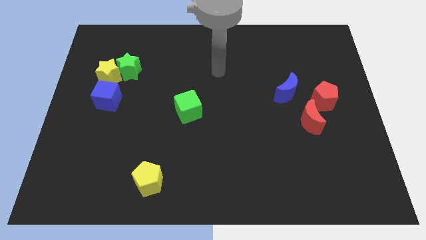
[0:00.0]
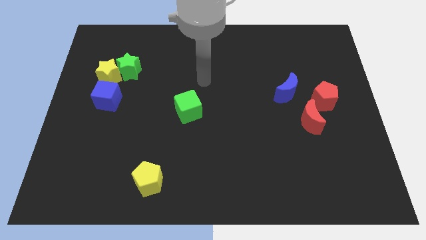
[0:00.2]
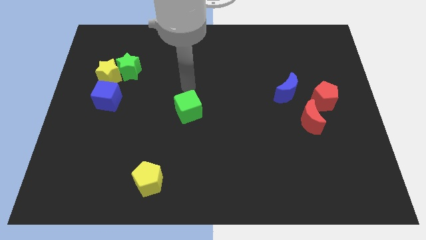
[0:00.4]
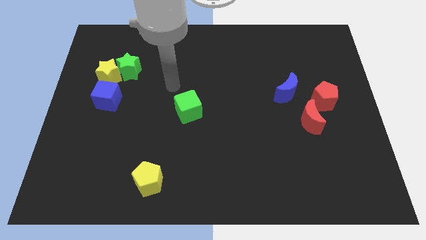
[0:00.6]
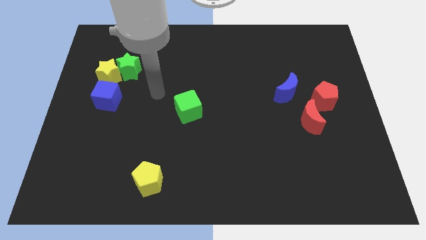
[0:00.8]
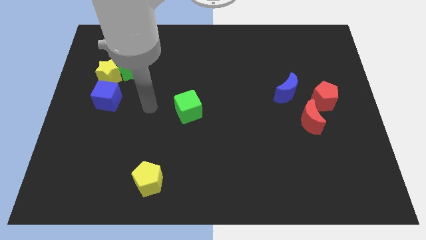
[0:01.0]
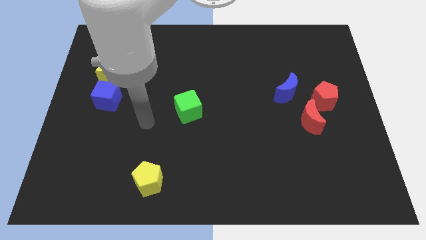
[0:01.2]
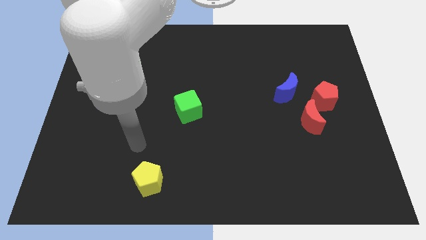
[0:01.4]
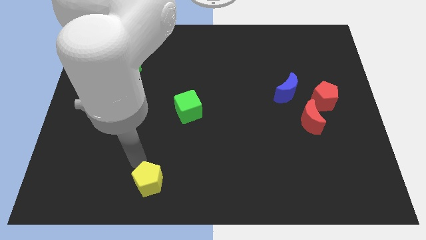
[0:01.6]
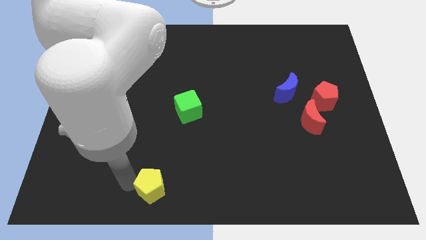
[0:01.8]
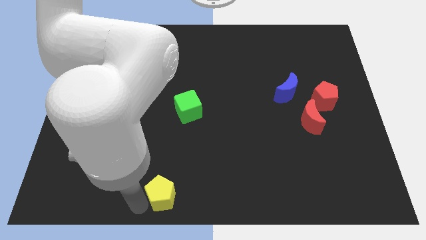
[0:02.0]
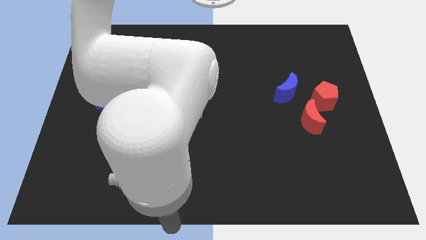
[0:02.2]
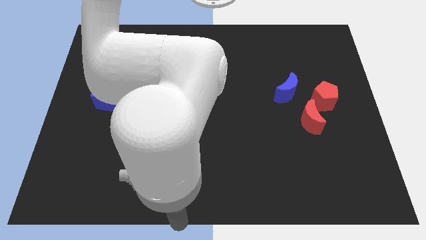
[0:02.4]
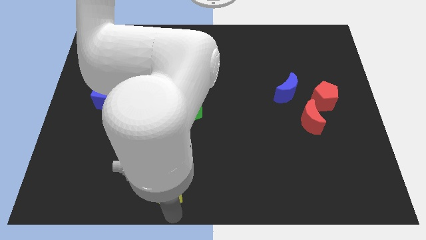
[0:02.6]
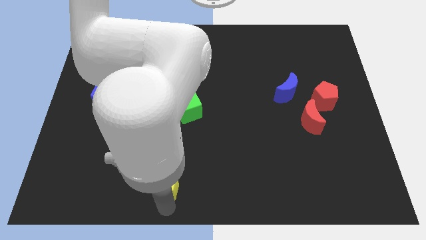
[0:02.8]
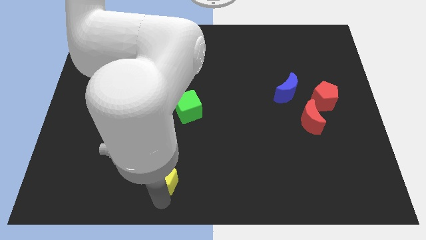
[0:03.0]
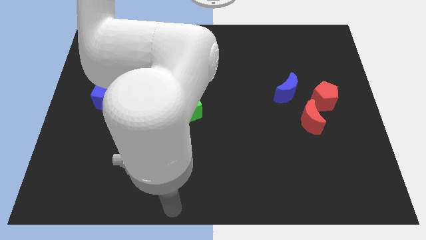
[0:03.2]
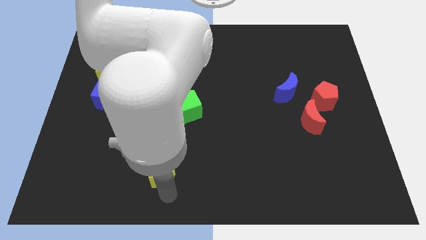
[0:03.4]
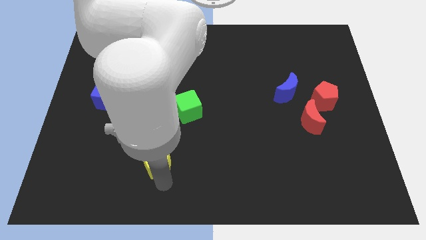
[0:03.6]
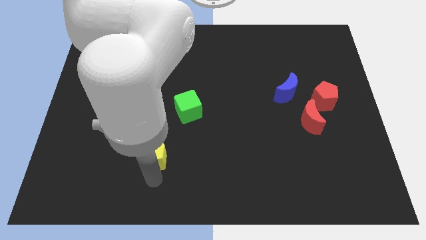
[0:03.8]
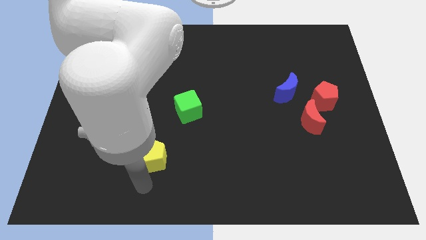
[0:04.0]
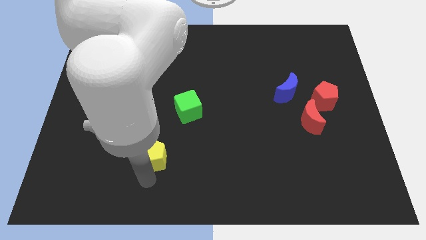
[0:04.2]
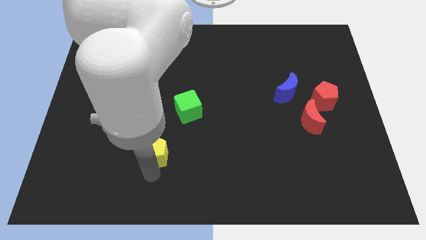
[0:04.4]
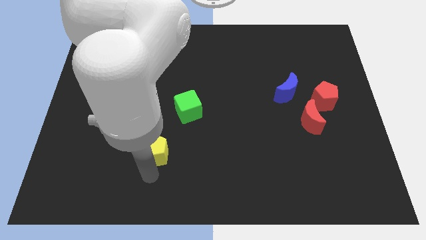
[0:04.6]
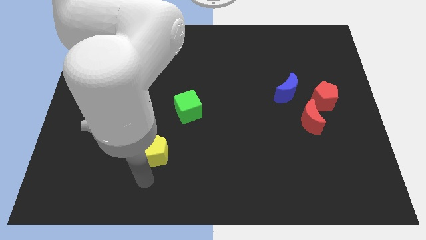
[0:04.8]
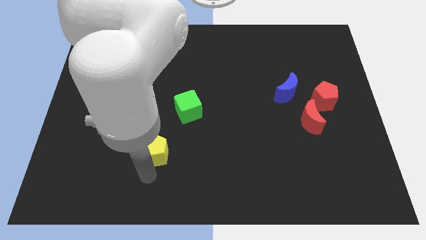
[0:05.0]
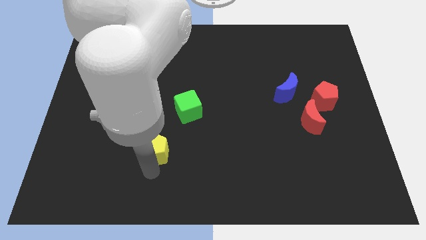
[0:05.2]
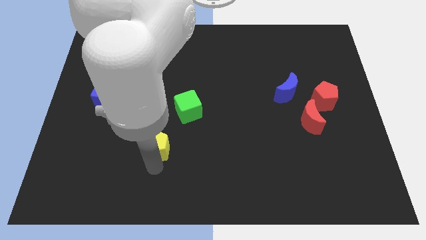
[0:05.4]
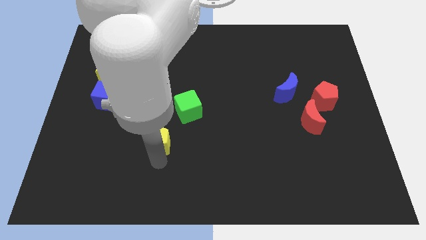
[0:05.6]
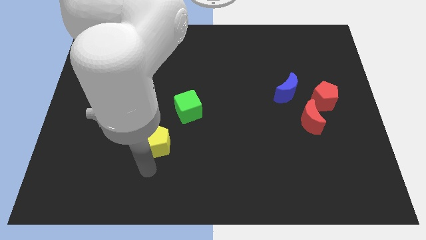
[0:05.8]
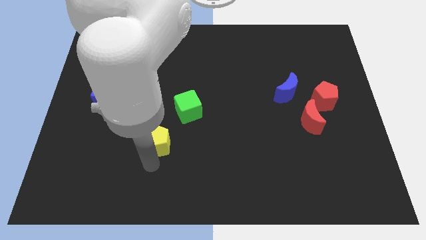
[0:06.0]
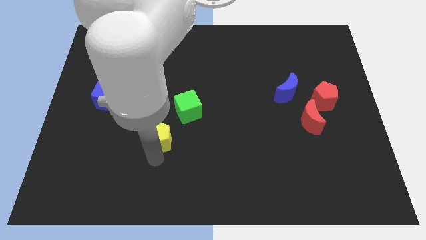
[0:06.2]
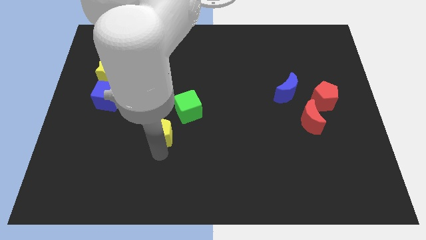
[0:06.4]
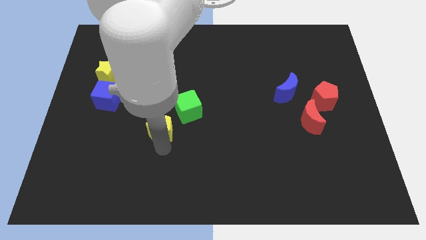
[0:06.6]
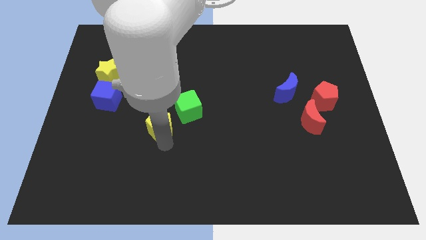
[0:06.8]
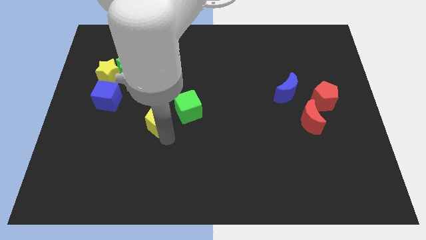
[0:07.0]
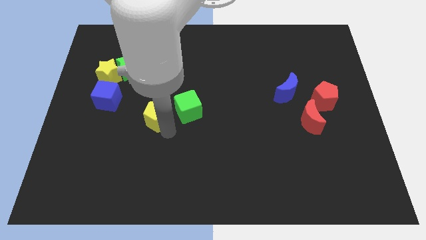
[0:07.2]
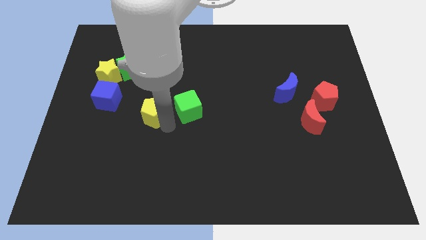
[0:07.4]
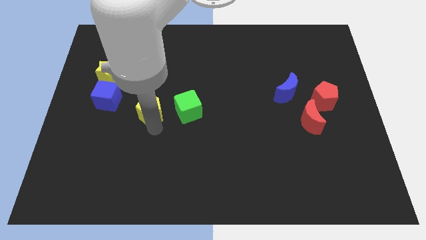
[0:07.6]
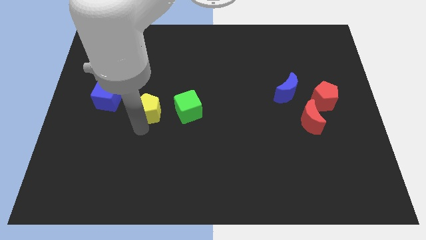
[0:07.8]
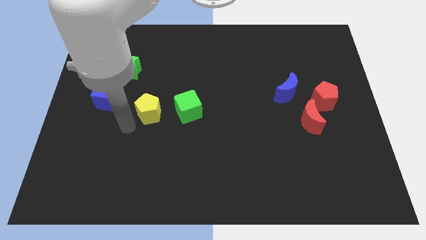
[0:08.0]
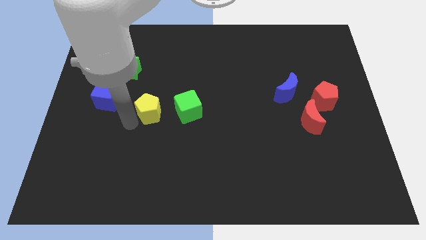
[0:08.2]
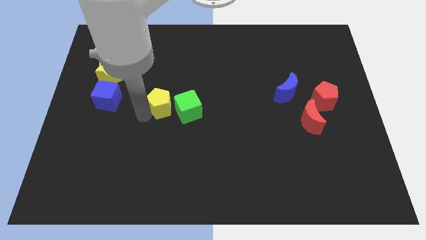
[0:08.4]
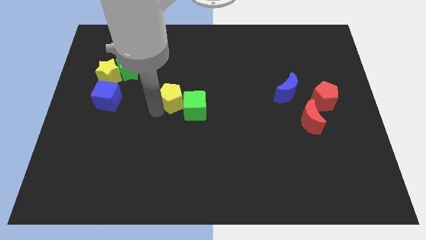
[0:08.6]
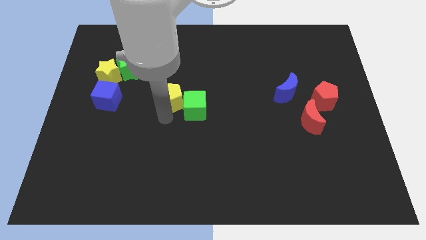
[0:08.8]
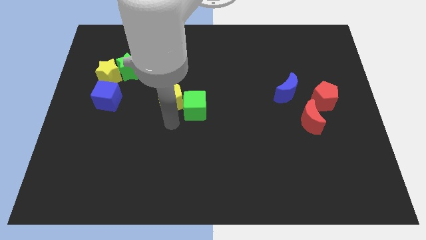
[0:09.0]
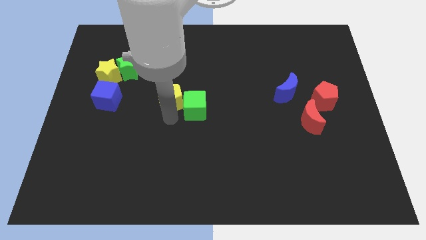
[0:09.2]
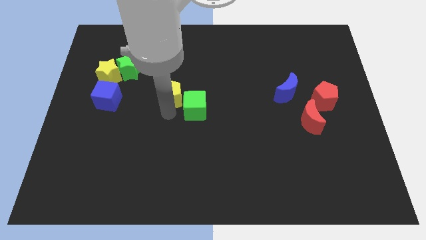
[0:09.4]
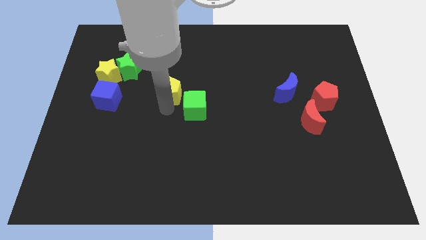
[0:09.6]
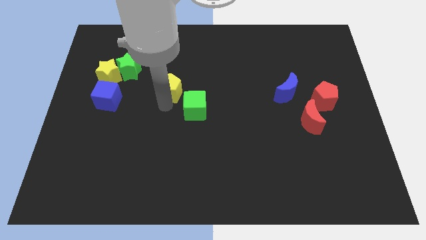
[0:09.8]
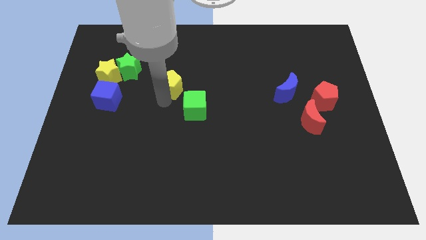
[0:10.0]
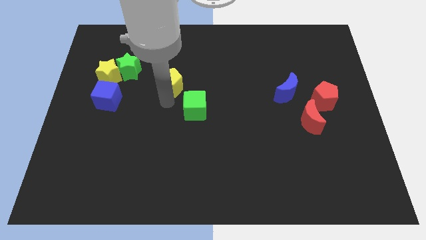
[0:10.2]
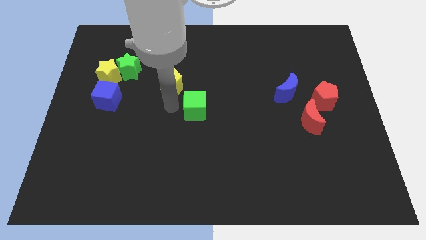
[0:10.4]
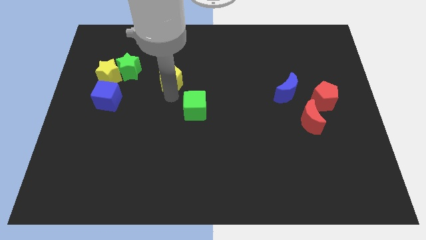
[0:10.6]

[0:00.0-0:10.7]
put the yellow pentagon to the right of the green star

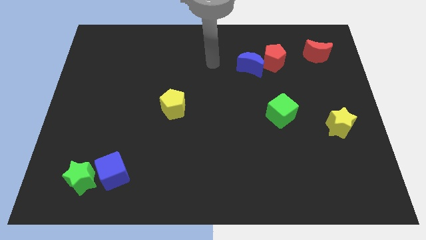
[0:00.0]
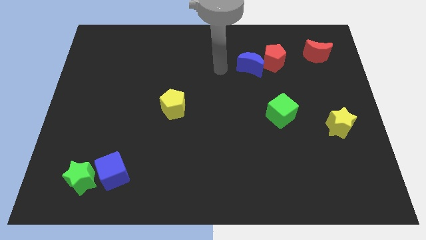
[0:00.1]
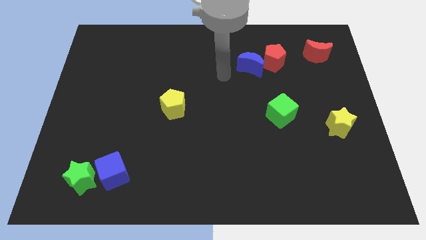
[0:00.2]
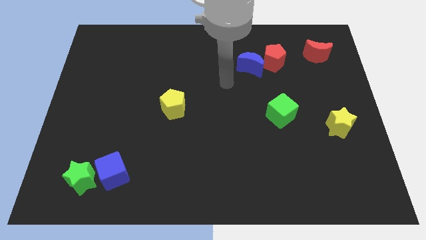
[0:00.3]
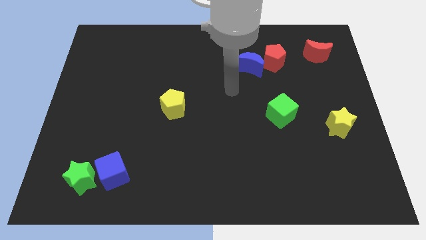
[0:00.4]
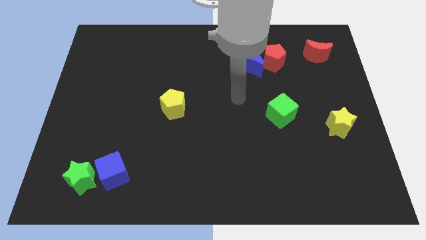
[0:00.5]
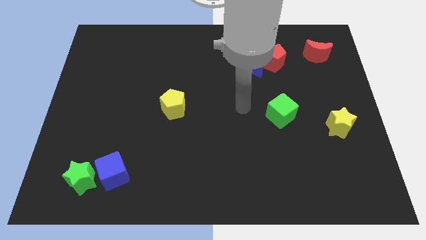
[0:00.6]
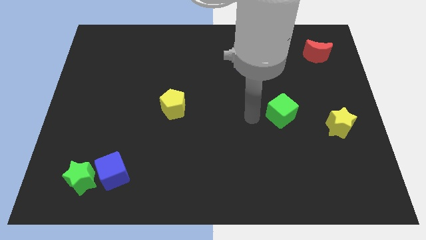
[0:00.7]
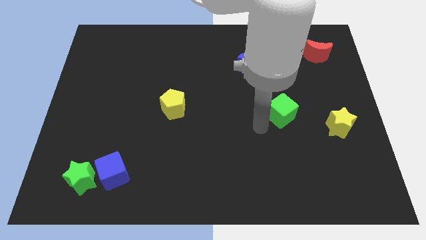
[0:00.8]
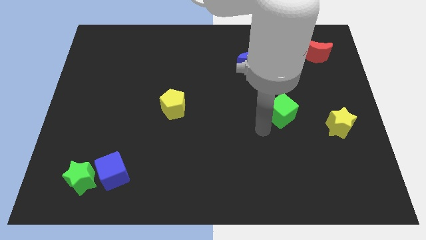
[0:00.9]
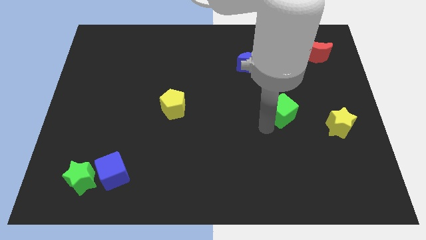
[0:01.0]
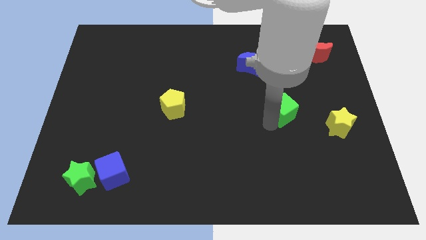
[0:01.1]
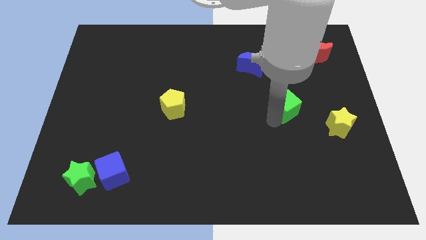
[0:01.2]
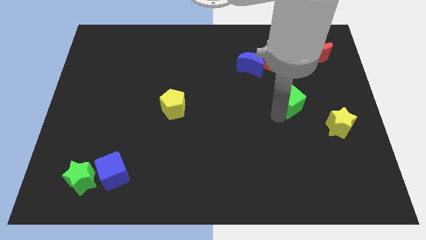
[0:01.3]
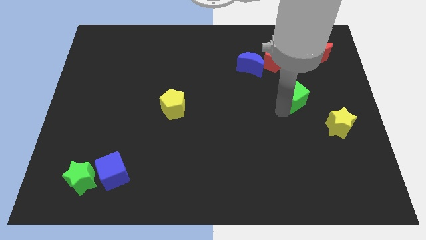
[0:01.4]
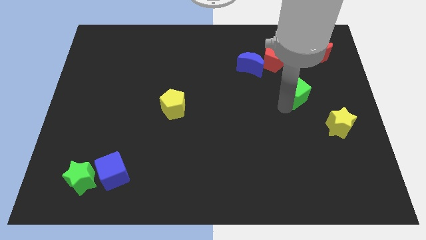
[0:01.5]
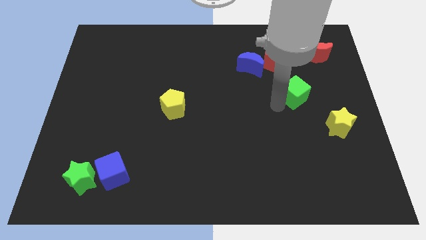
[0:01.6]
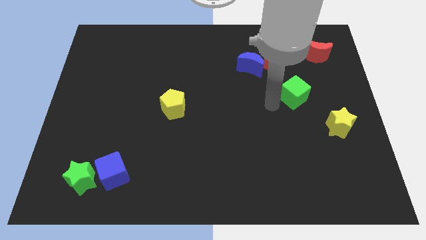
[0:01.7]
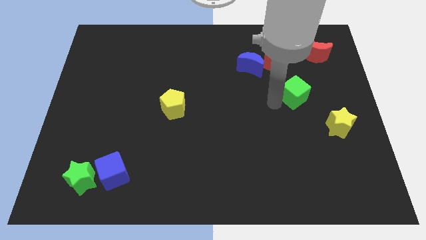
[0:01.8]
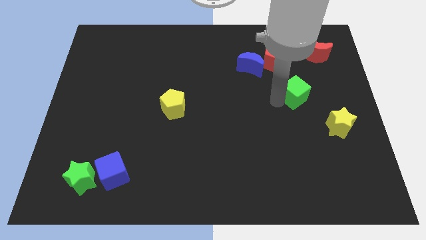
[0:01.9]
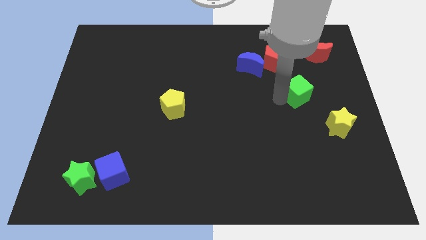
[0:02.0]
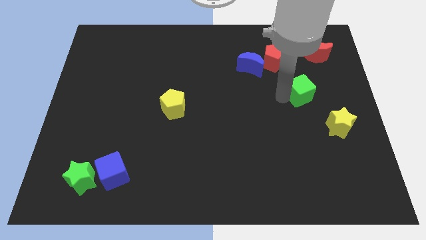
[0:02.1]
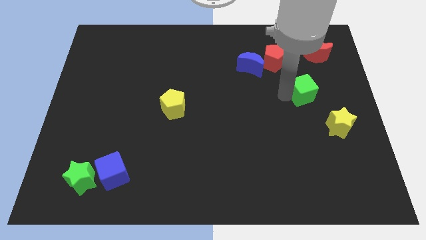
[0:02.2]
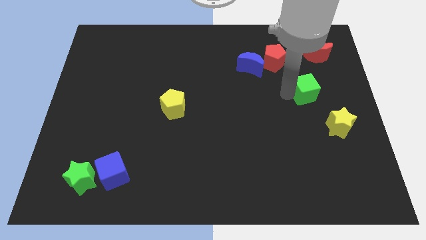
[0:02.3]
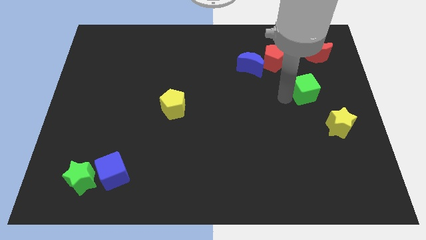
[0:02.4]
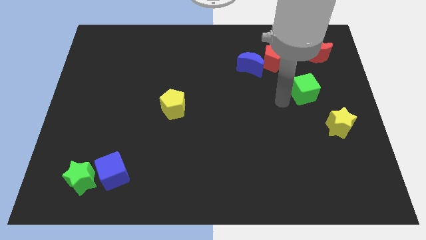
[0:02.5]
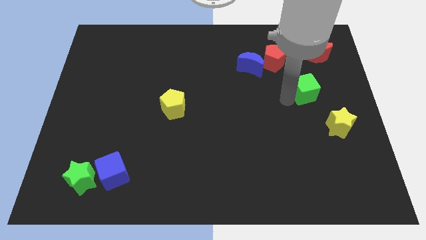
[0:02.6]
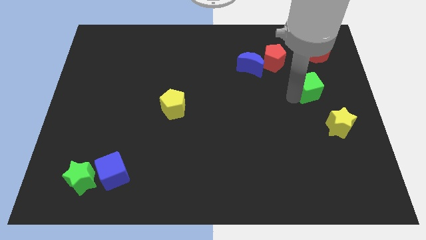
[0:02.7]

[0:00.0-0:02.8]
move the green cube to the bottom side of the red moon
